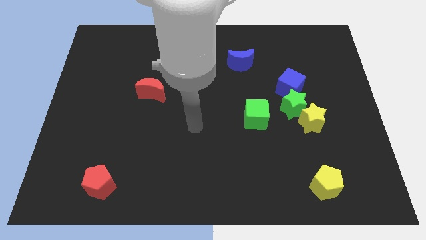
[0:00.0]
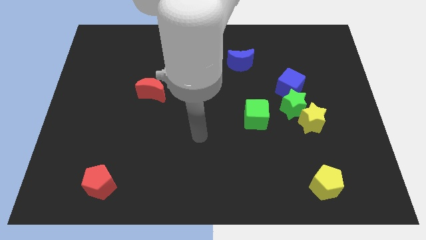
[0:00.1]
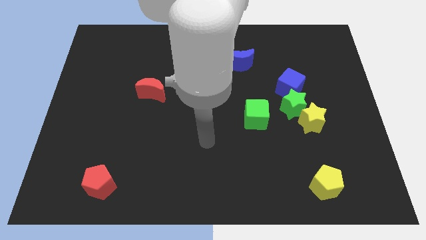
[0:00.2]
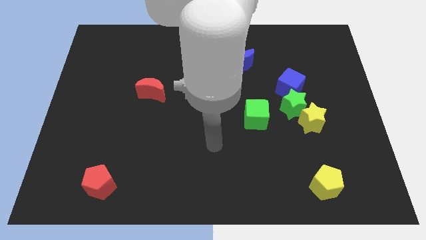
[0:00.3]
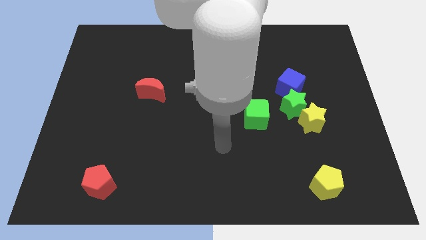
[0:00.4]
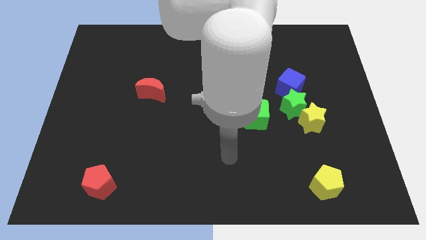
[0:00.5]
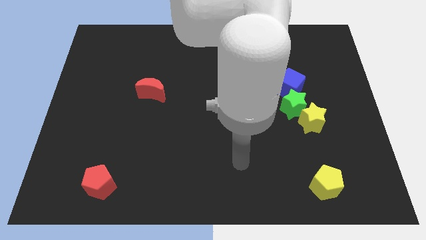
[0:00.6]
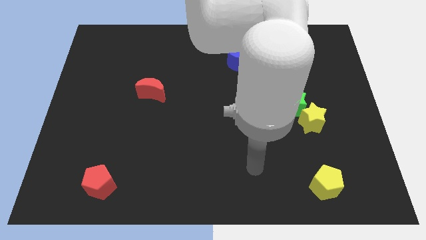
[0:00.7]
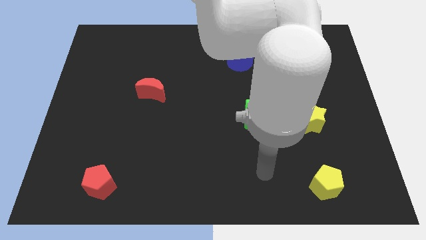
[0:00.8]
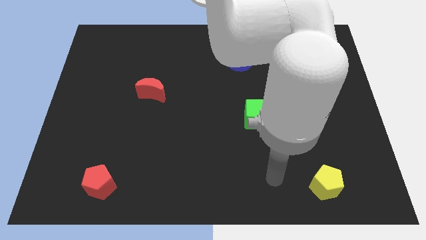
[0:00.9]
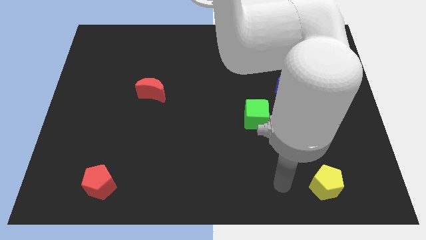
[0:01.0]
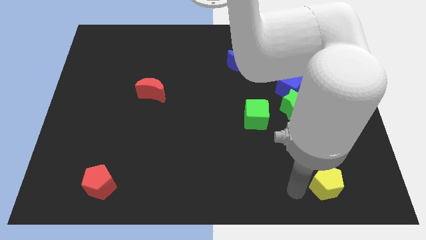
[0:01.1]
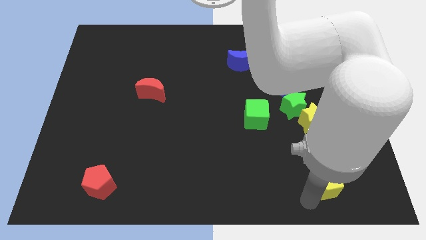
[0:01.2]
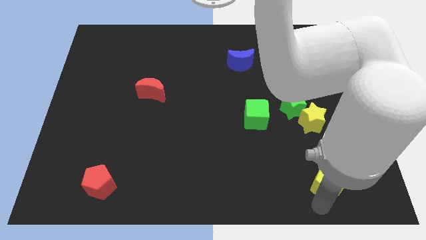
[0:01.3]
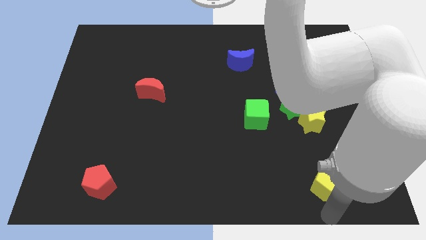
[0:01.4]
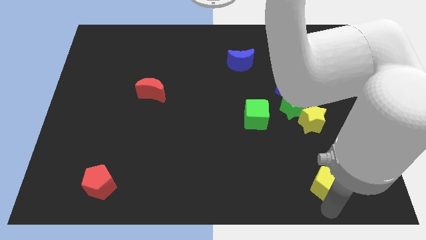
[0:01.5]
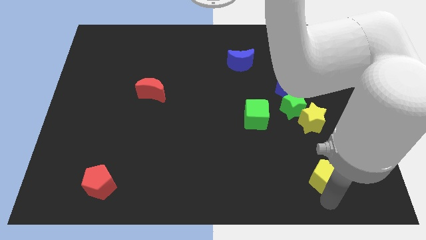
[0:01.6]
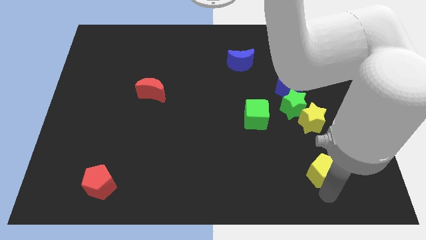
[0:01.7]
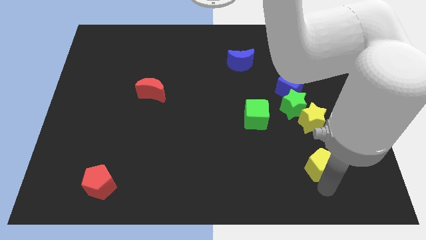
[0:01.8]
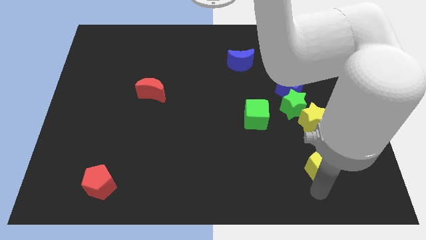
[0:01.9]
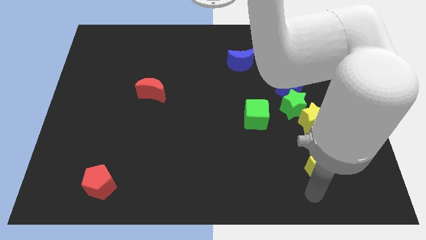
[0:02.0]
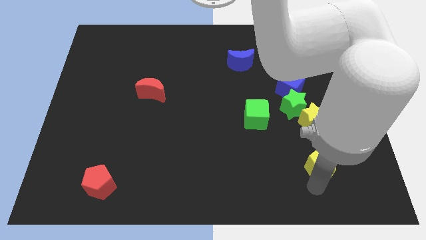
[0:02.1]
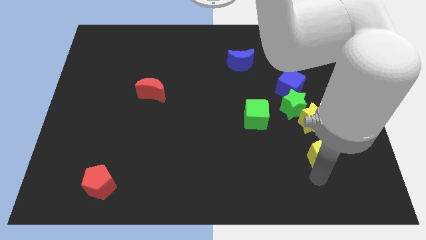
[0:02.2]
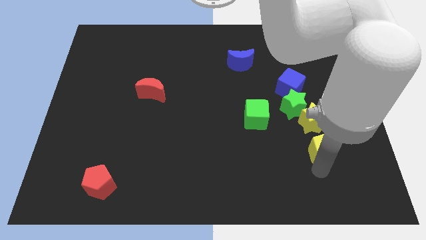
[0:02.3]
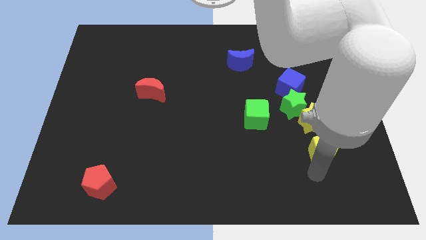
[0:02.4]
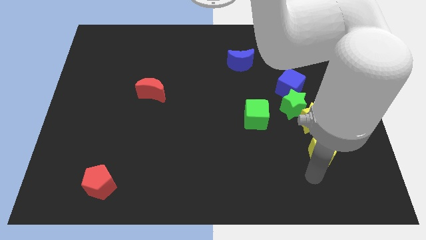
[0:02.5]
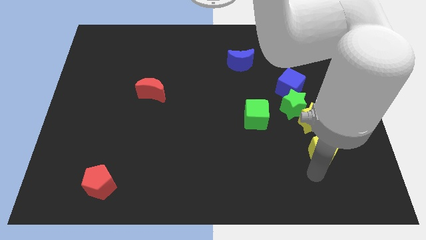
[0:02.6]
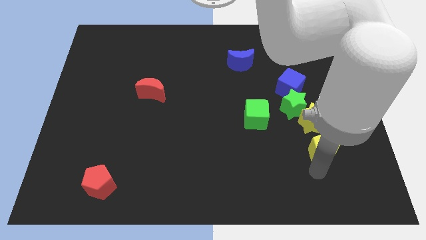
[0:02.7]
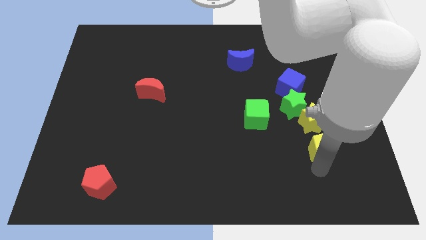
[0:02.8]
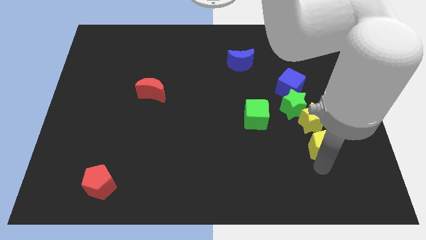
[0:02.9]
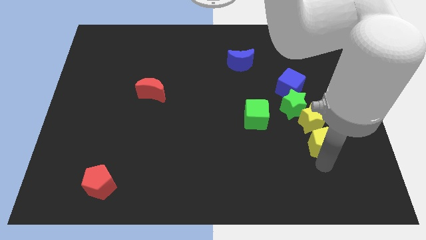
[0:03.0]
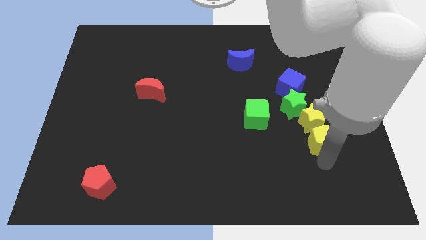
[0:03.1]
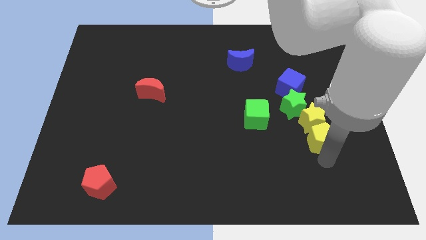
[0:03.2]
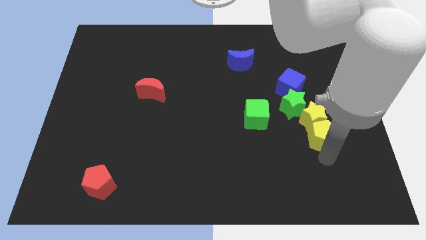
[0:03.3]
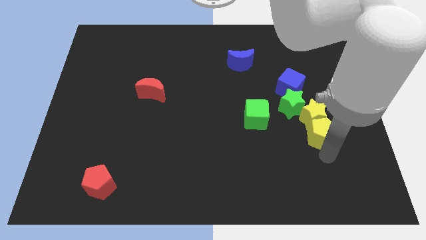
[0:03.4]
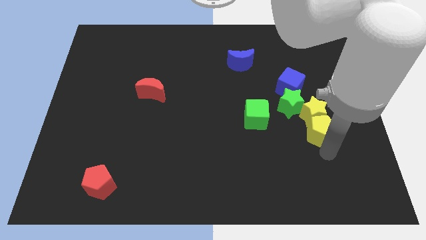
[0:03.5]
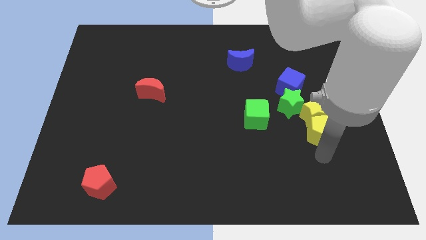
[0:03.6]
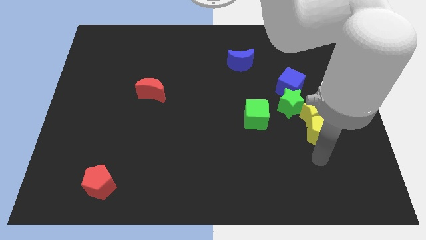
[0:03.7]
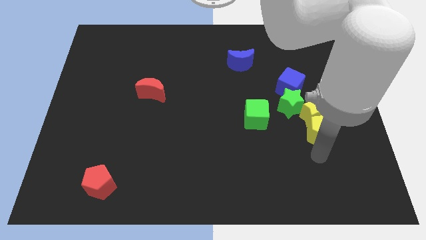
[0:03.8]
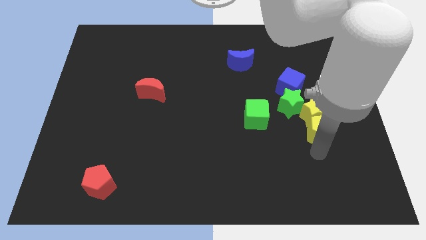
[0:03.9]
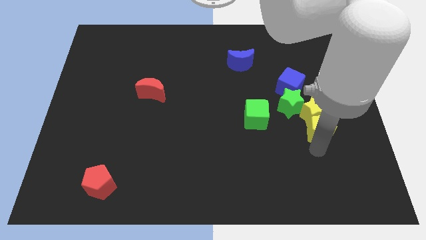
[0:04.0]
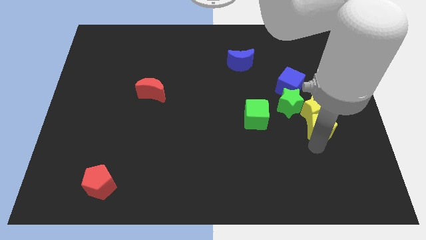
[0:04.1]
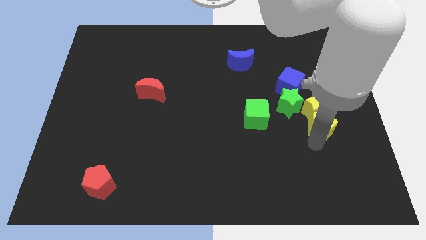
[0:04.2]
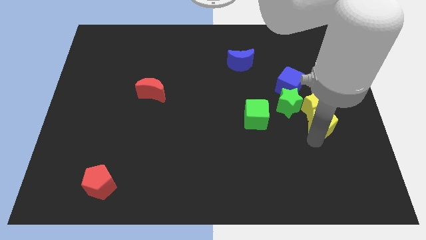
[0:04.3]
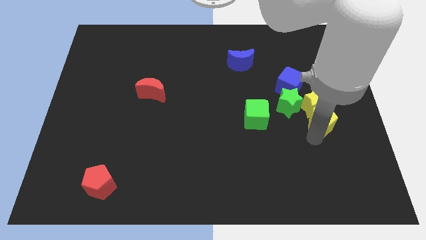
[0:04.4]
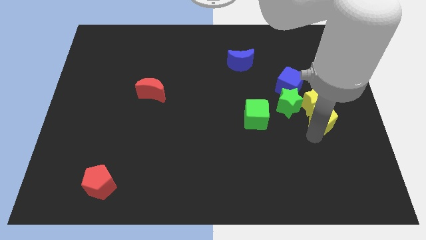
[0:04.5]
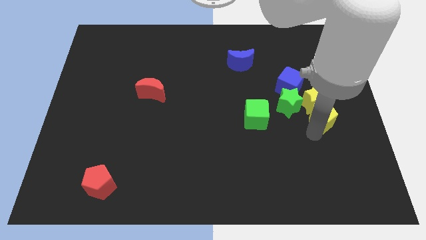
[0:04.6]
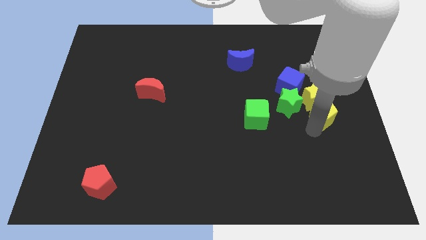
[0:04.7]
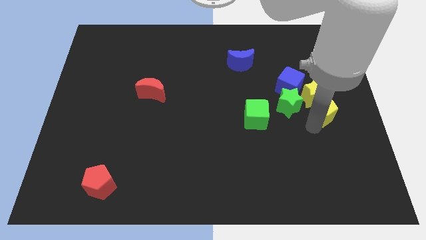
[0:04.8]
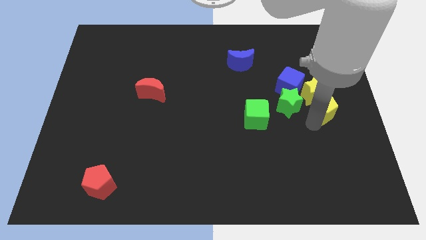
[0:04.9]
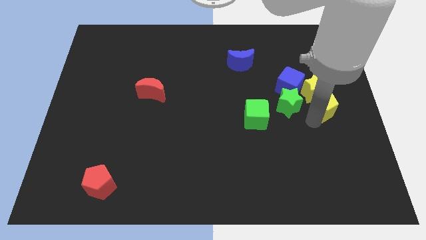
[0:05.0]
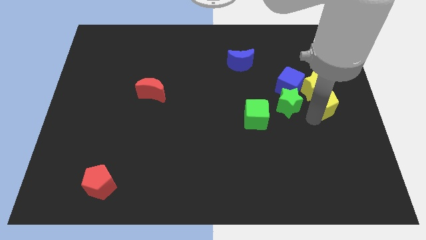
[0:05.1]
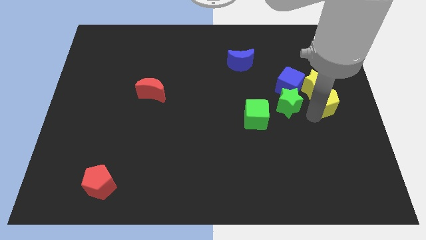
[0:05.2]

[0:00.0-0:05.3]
slide the yellow pentagon upwards

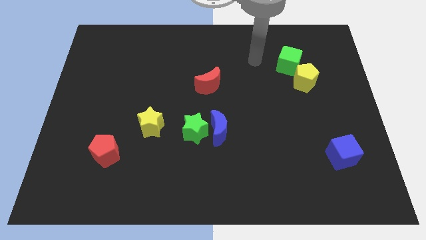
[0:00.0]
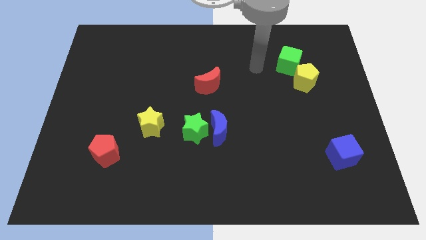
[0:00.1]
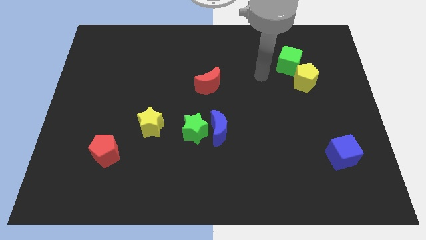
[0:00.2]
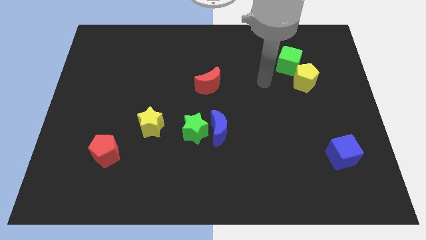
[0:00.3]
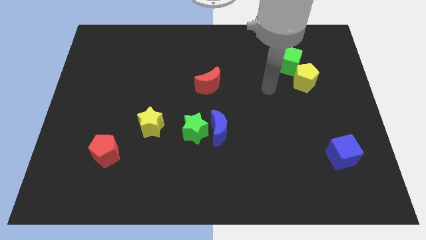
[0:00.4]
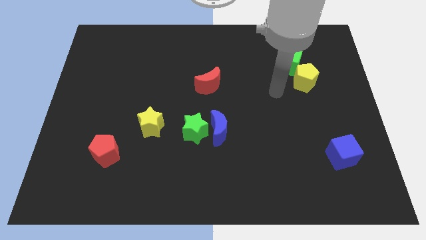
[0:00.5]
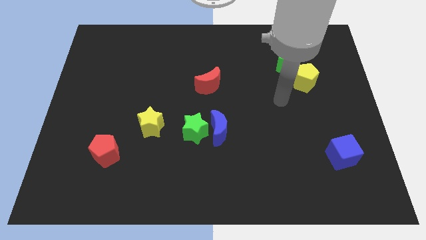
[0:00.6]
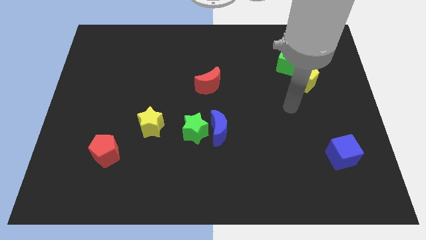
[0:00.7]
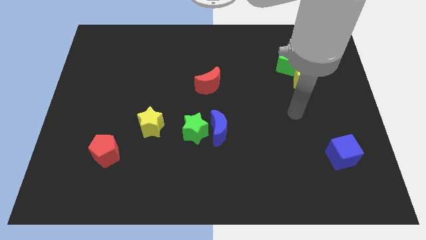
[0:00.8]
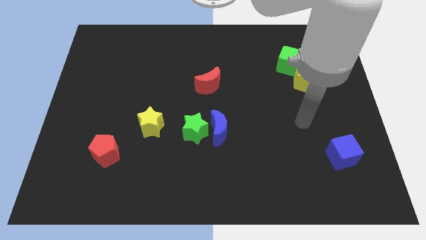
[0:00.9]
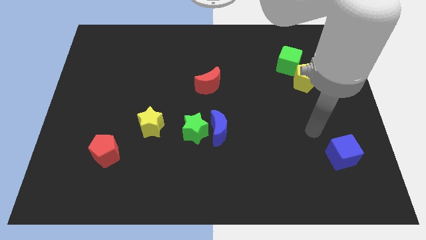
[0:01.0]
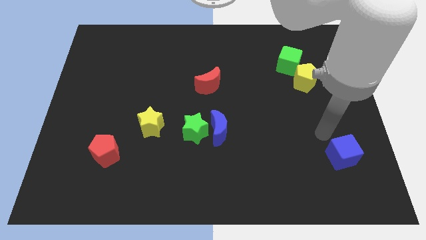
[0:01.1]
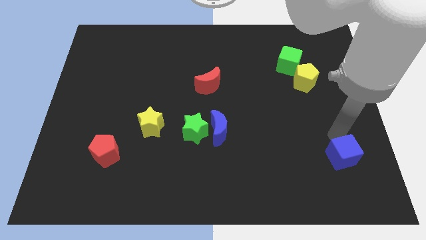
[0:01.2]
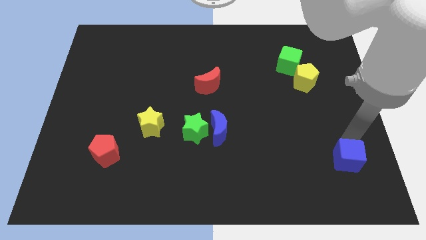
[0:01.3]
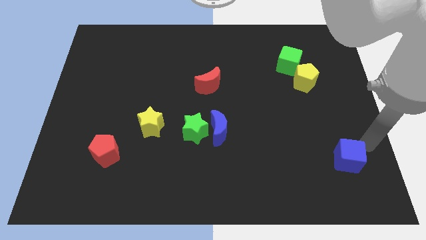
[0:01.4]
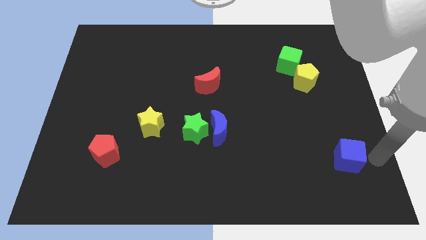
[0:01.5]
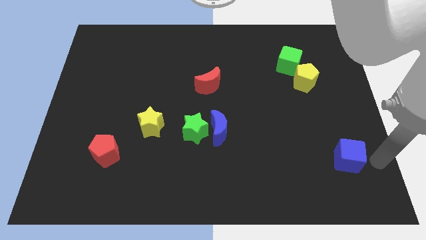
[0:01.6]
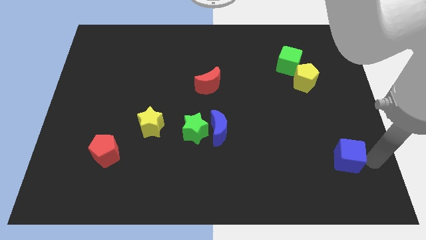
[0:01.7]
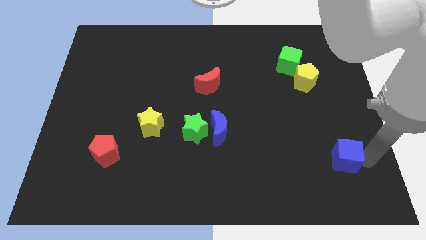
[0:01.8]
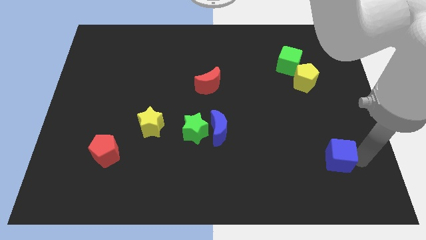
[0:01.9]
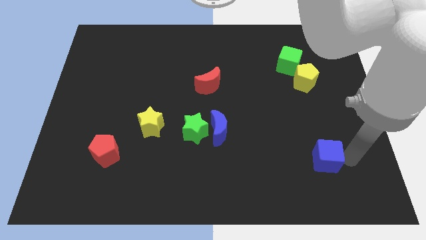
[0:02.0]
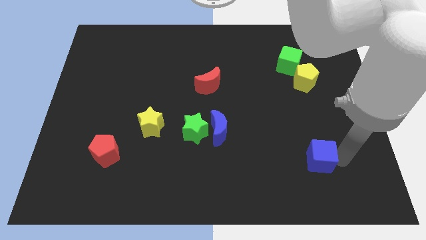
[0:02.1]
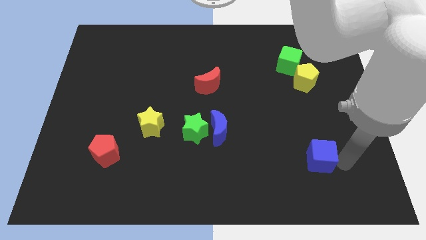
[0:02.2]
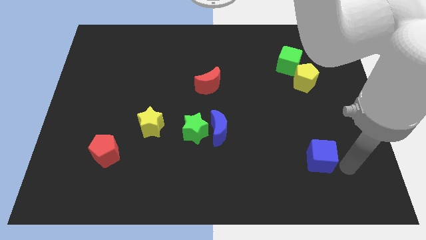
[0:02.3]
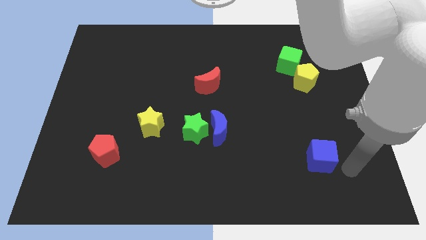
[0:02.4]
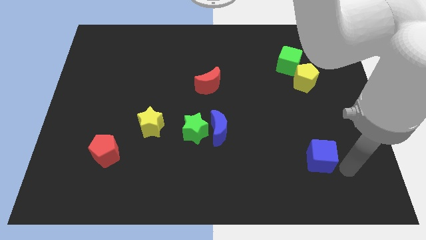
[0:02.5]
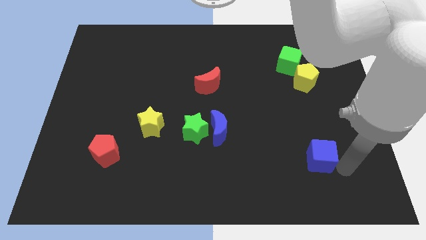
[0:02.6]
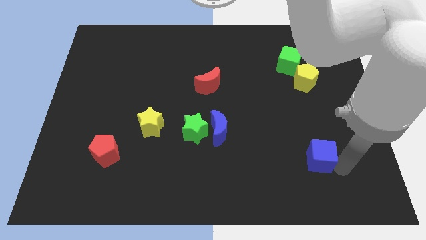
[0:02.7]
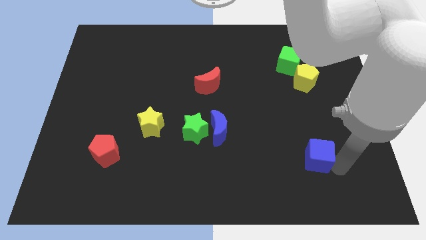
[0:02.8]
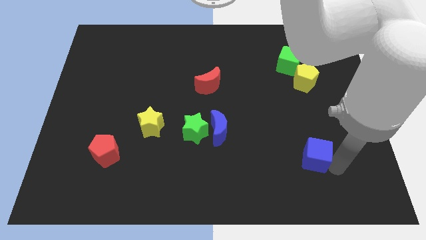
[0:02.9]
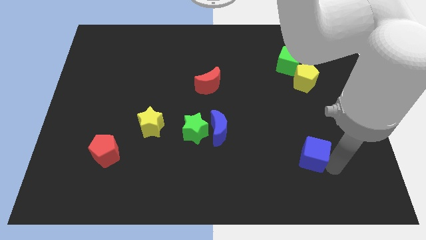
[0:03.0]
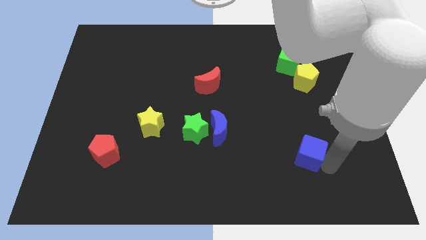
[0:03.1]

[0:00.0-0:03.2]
move the blue cube a little bit to the left
